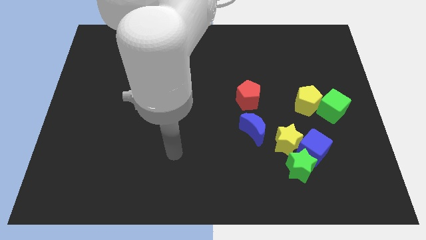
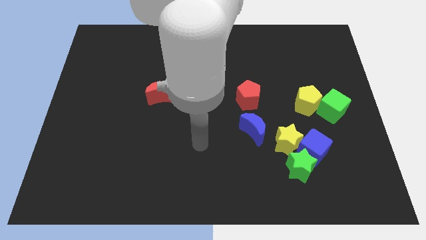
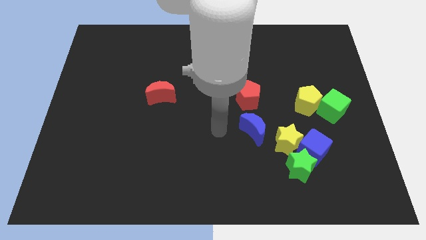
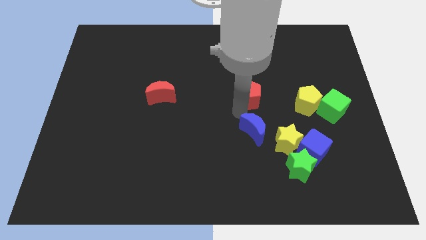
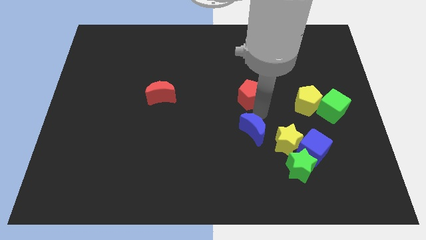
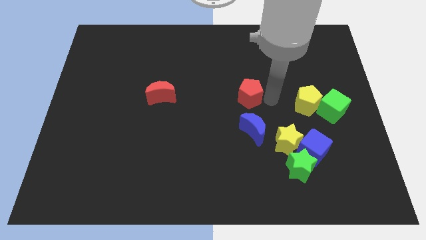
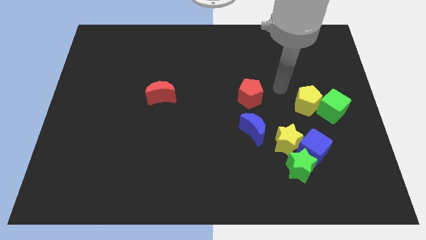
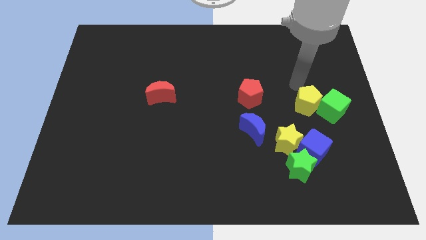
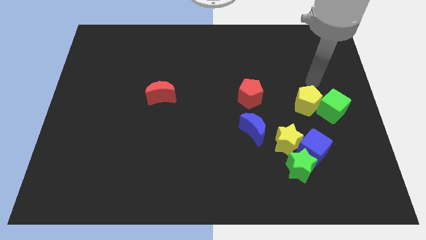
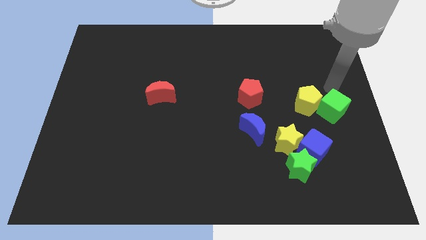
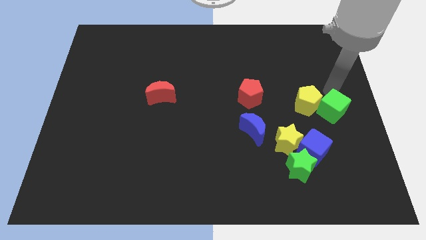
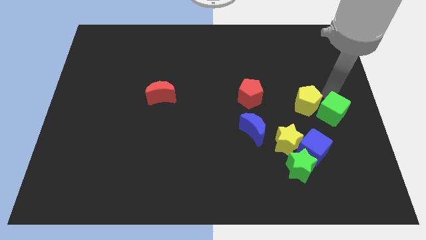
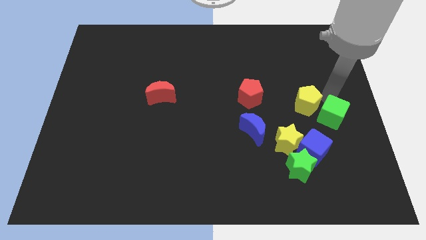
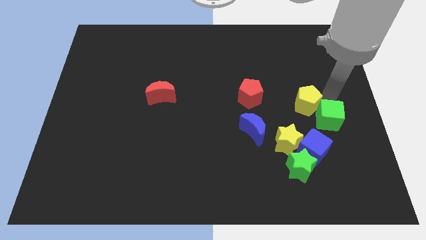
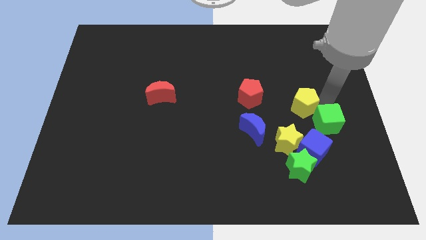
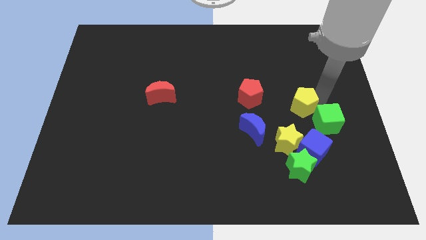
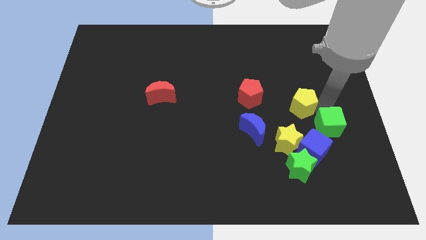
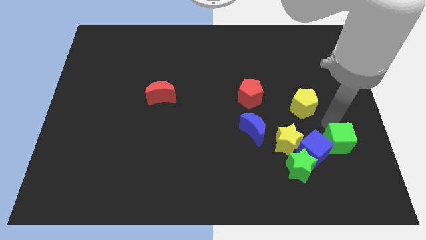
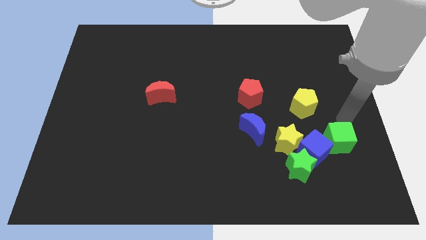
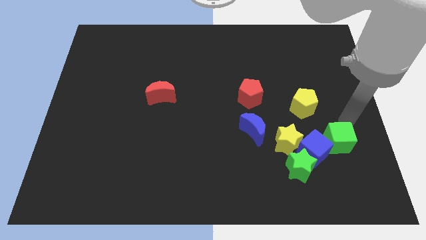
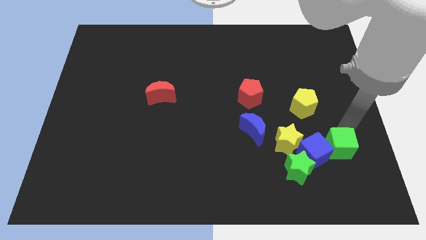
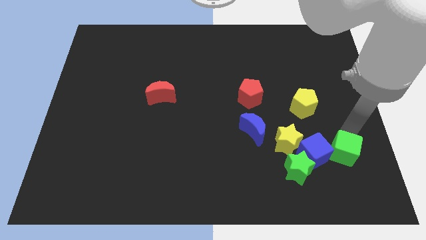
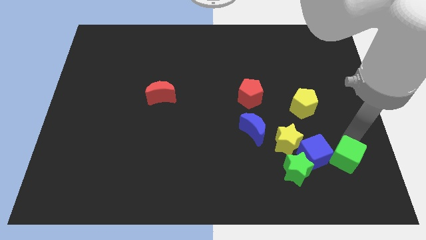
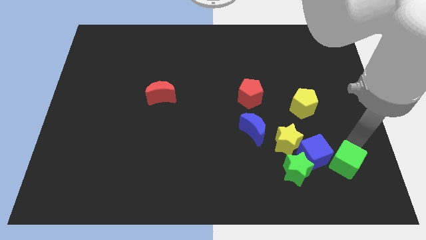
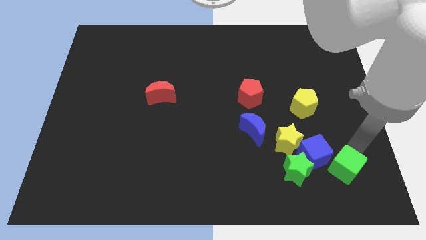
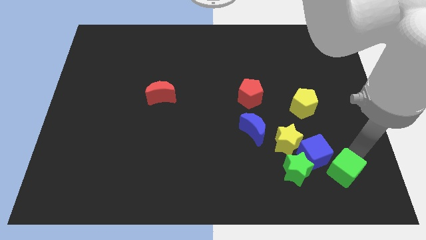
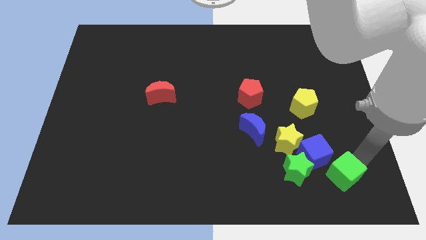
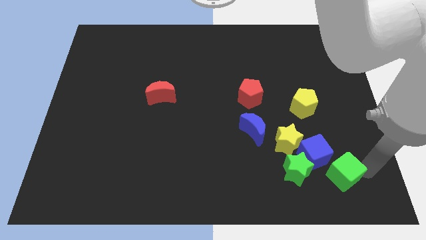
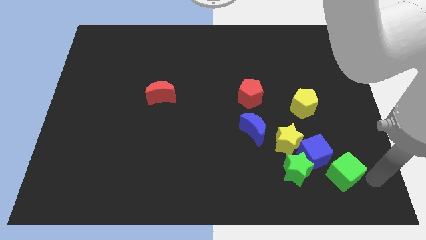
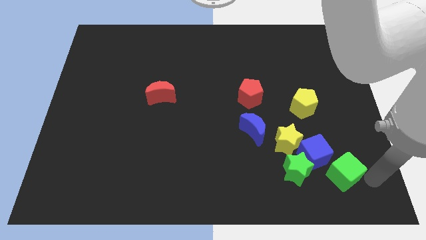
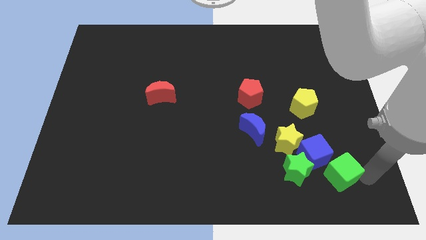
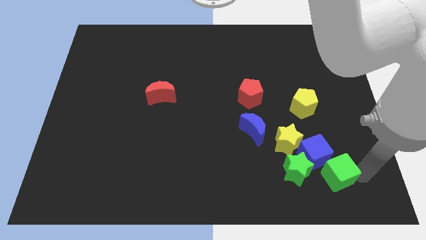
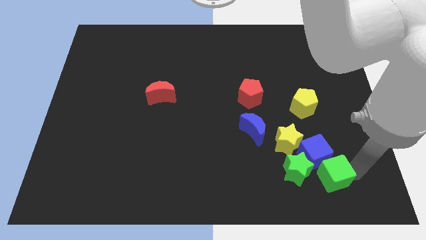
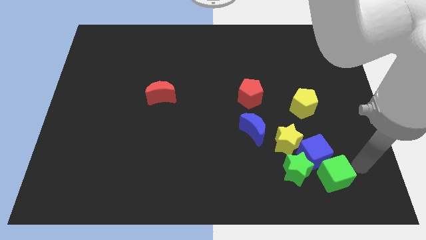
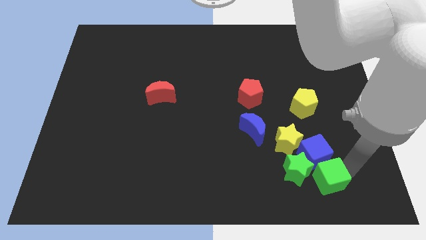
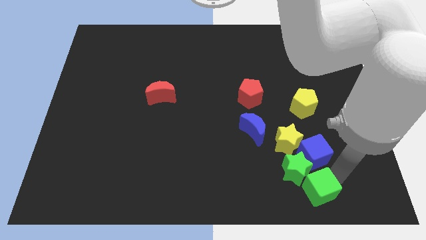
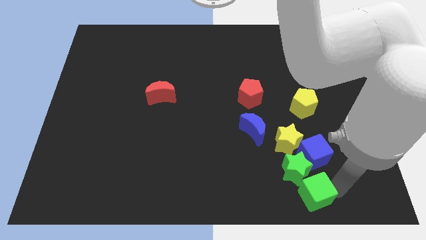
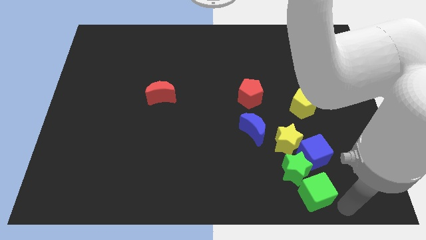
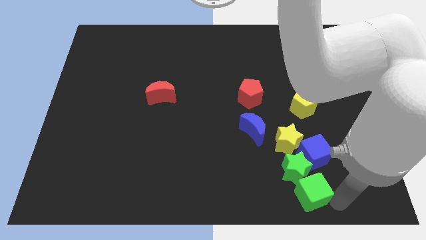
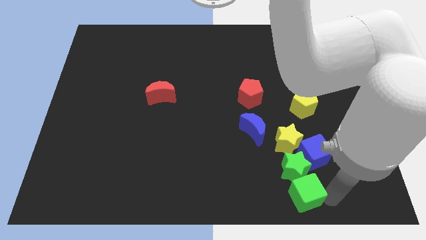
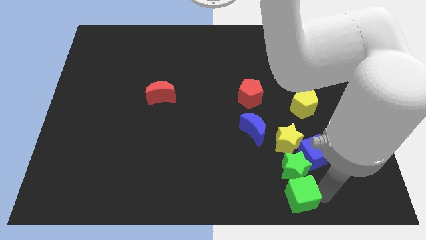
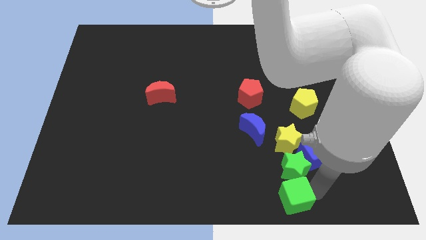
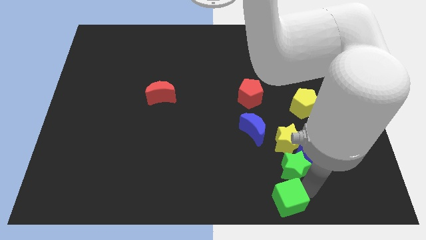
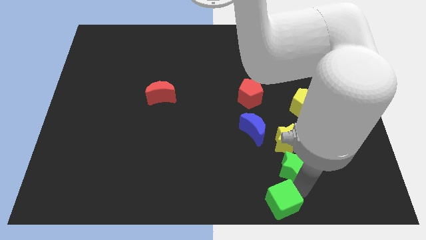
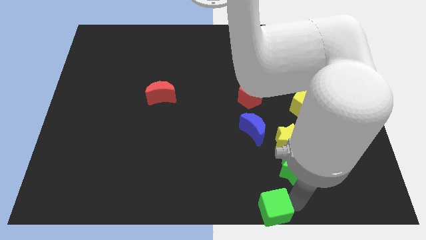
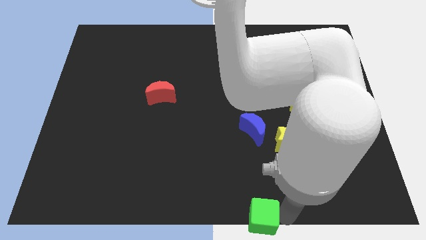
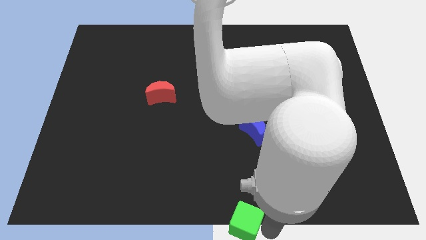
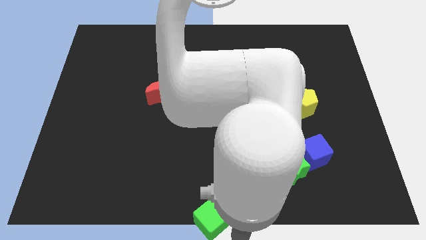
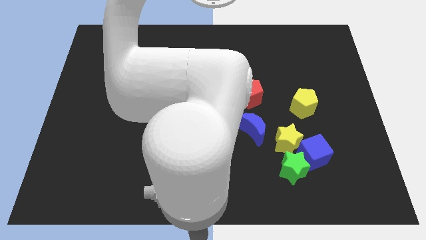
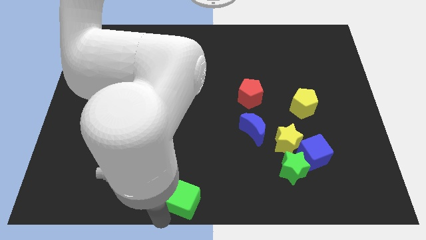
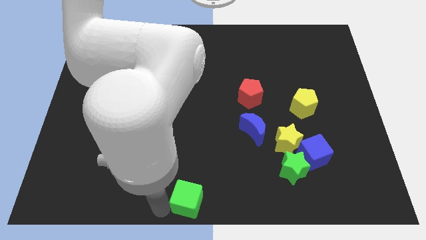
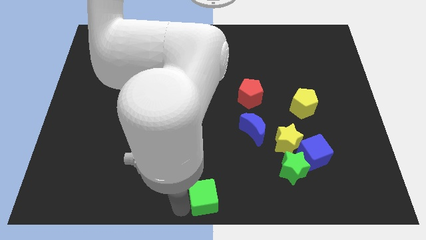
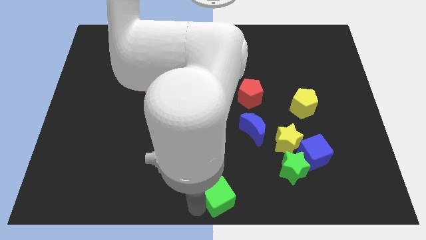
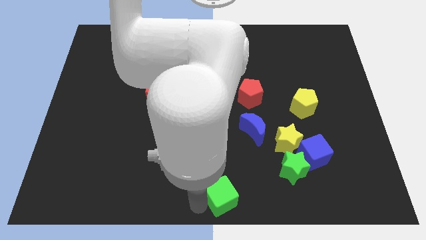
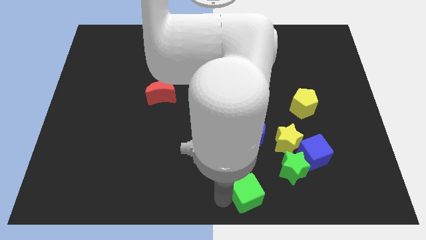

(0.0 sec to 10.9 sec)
put the green cube to the bottom side of the blue moon

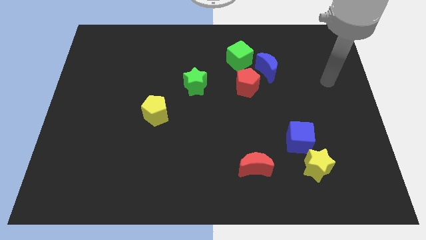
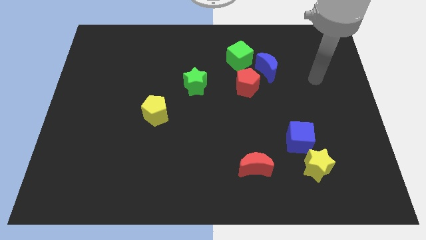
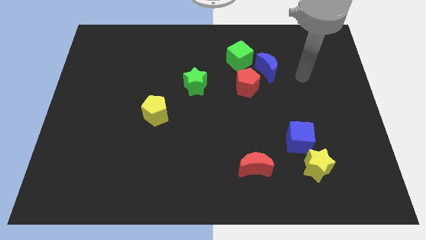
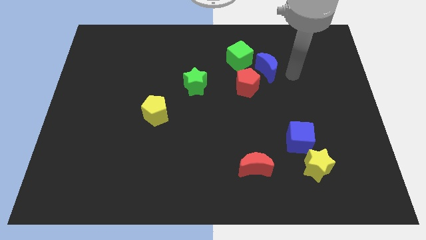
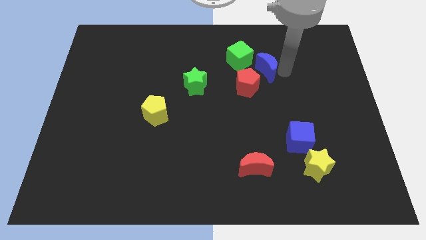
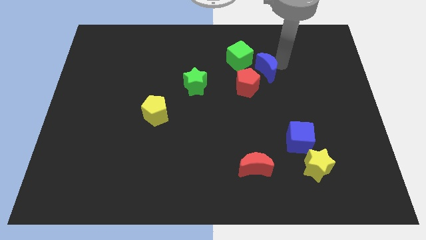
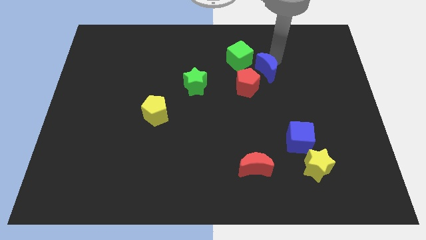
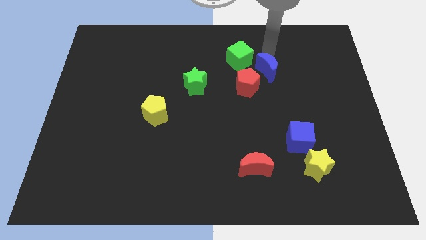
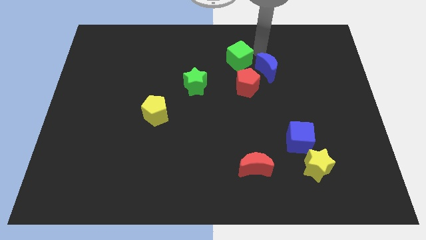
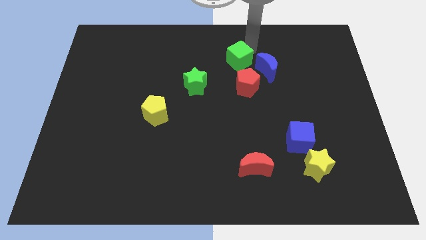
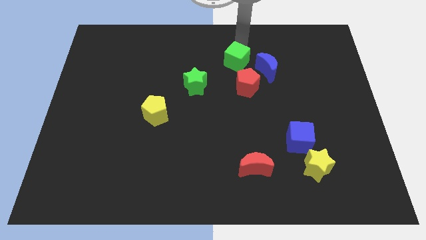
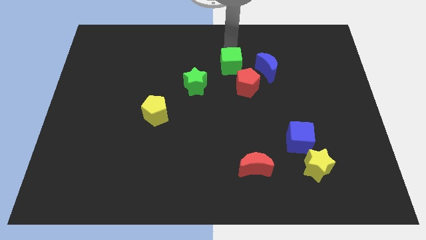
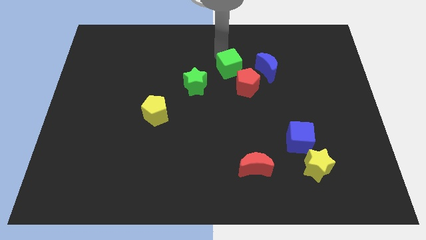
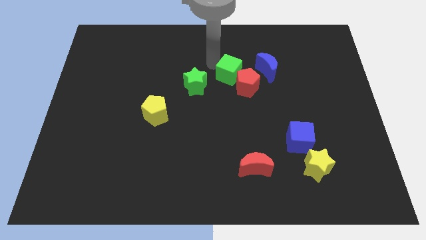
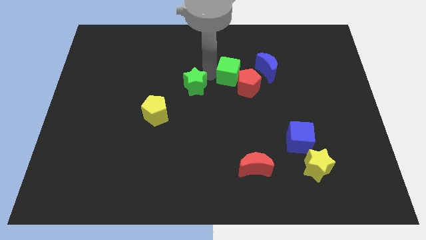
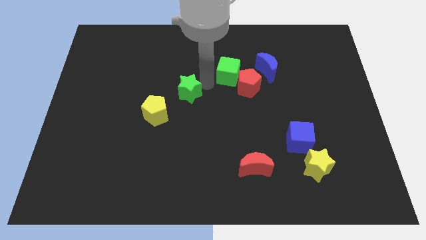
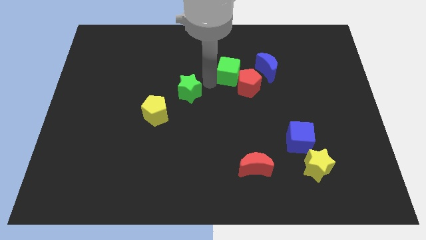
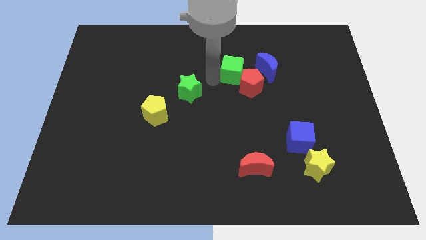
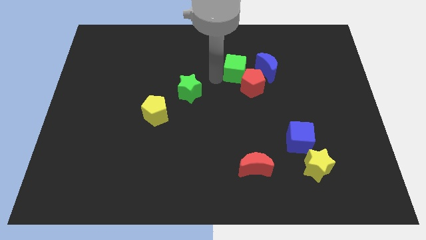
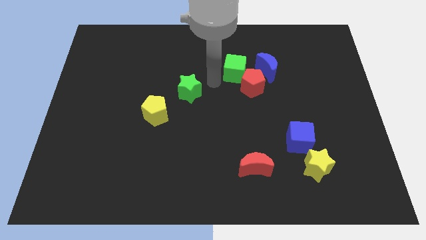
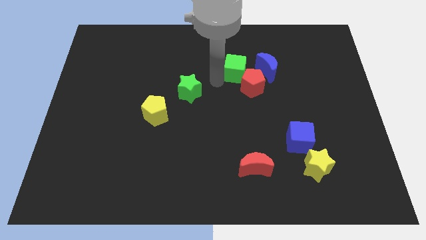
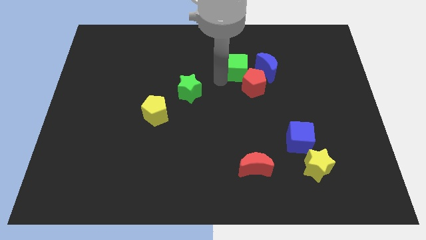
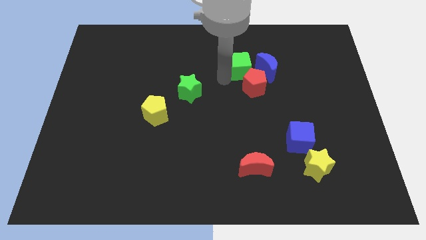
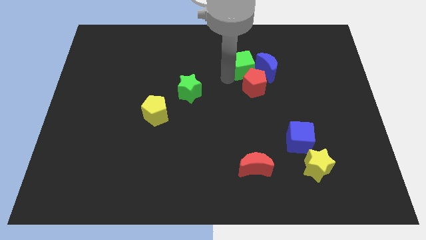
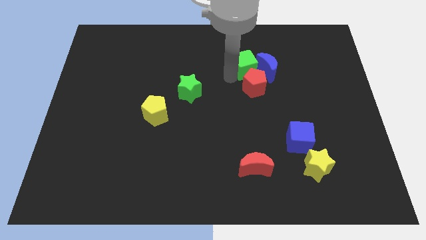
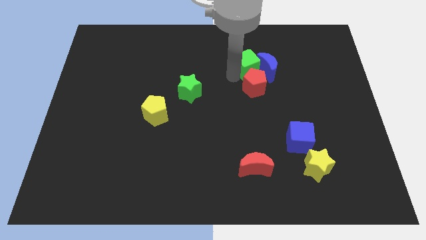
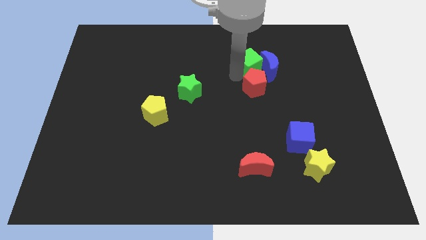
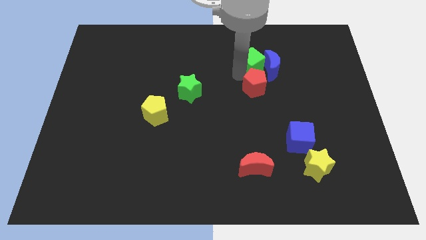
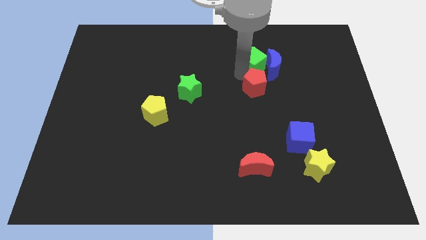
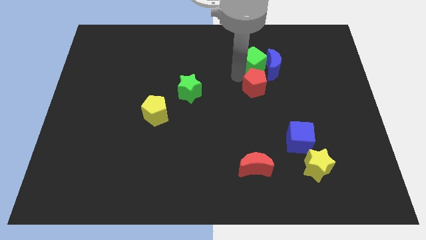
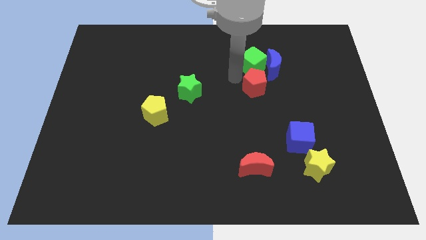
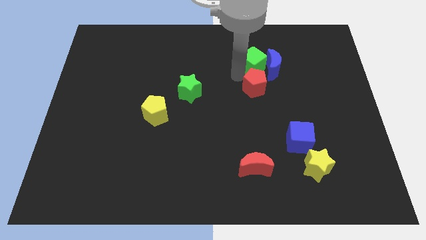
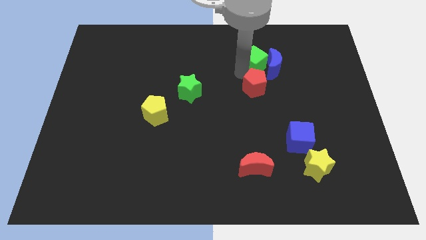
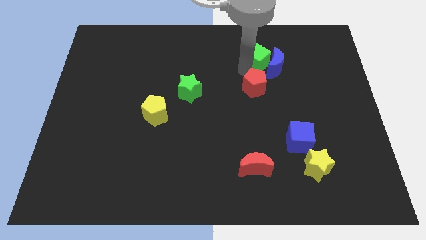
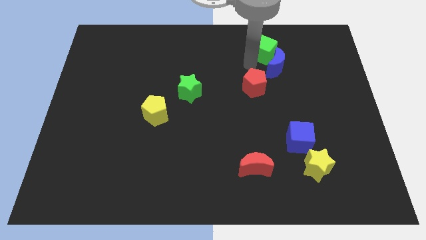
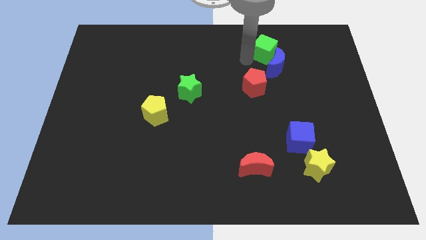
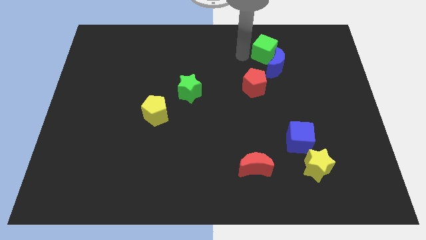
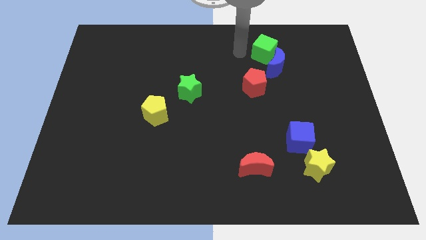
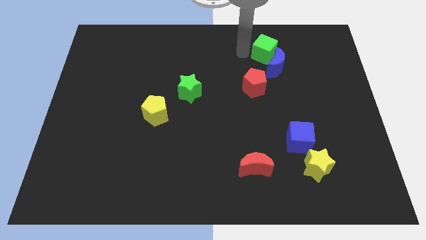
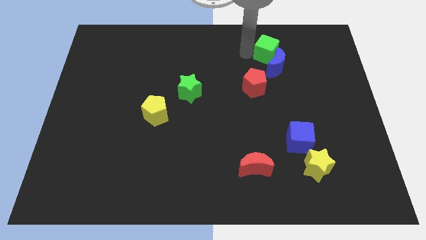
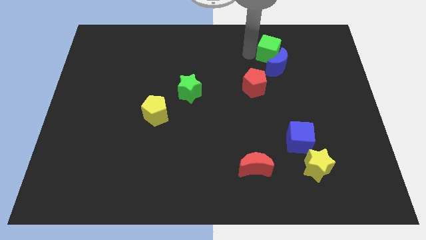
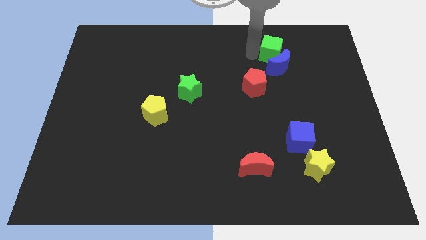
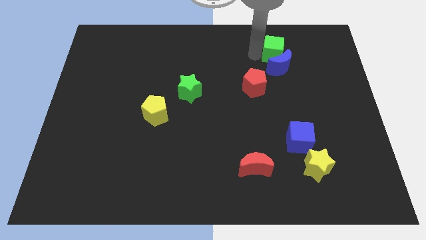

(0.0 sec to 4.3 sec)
put the green cube to the top right side of the blue moon
